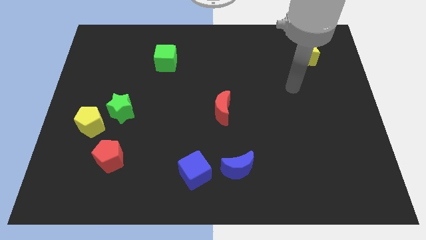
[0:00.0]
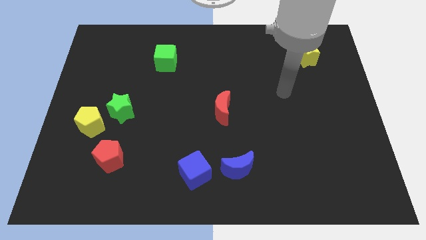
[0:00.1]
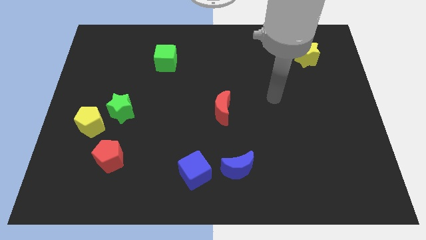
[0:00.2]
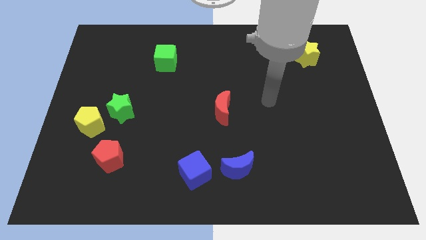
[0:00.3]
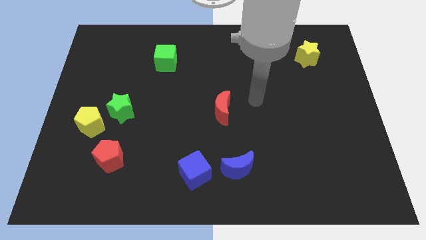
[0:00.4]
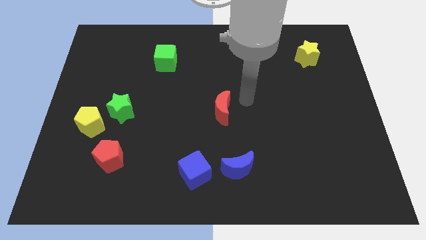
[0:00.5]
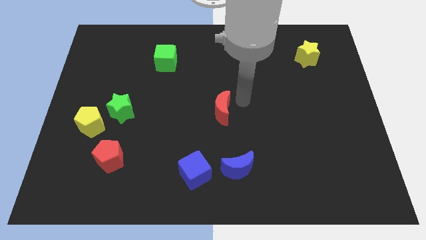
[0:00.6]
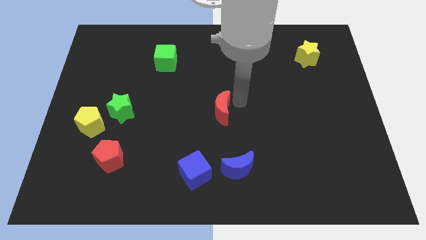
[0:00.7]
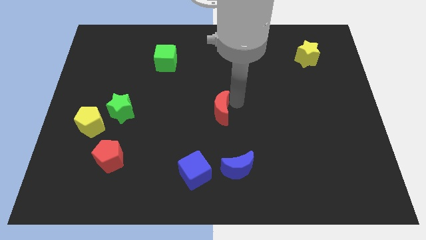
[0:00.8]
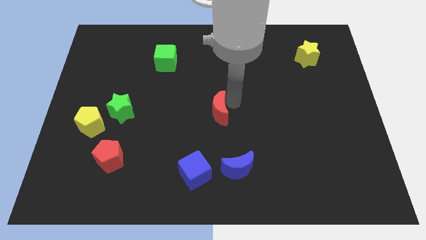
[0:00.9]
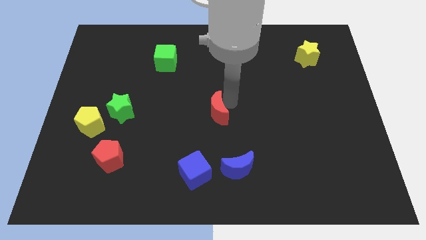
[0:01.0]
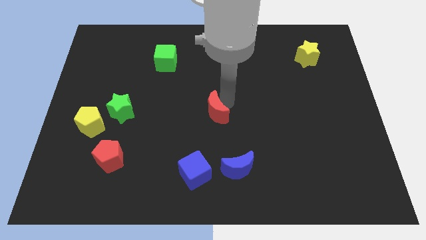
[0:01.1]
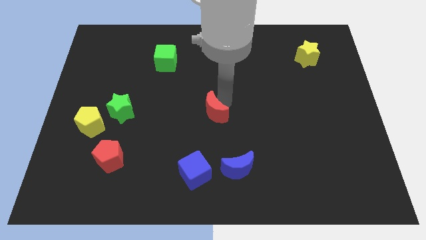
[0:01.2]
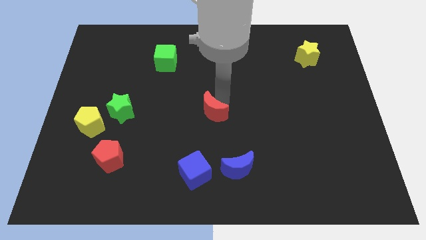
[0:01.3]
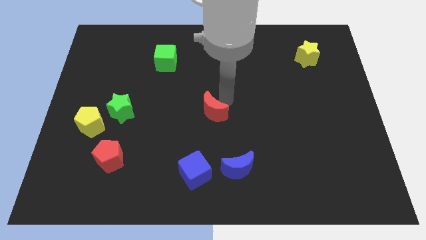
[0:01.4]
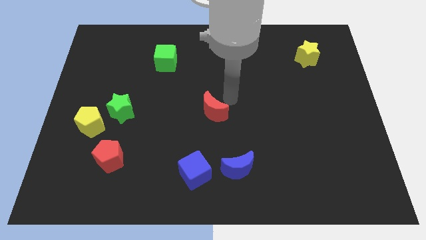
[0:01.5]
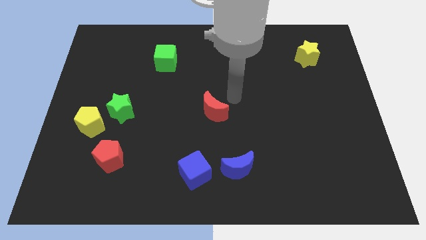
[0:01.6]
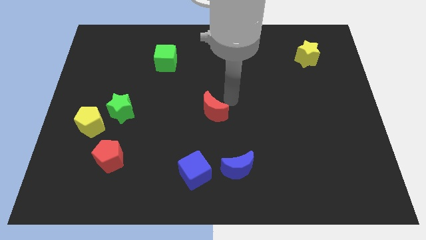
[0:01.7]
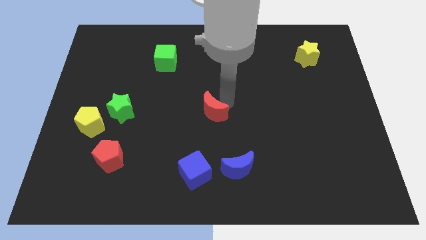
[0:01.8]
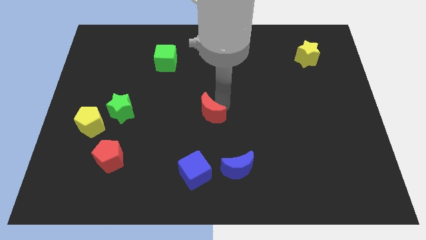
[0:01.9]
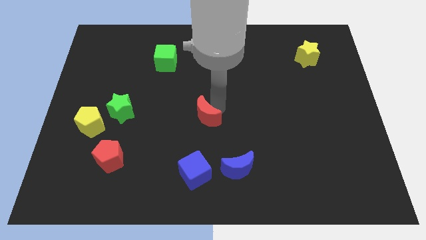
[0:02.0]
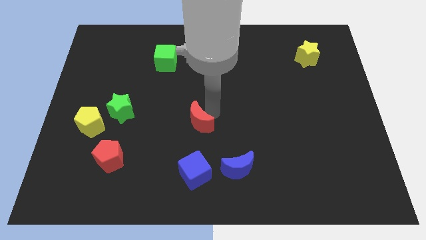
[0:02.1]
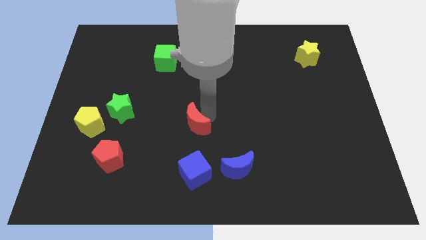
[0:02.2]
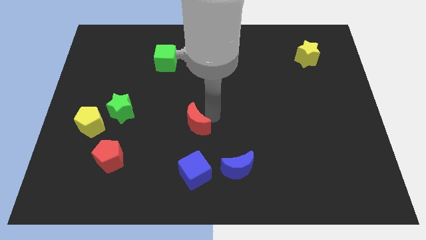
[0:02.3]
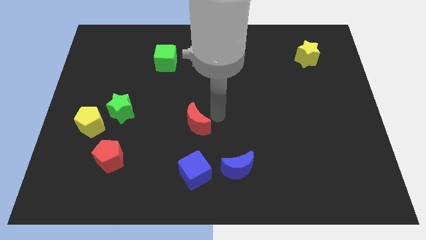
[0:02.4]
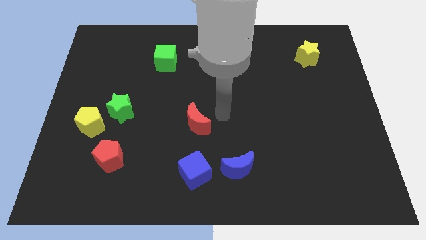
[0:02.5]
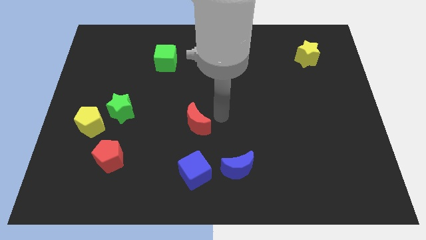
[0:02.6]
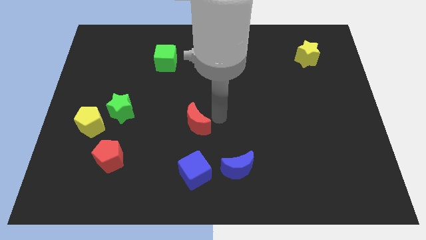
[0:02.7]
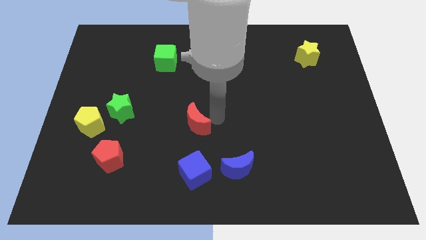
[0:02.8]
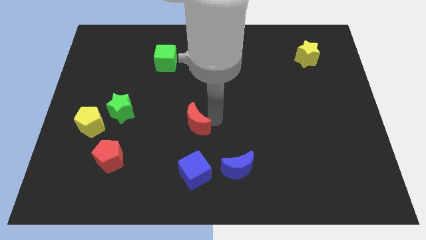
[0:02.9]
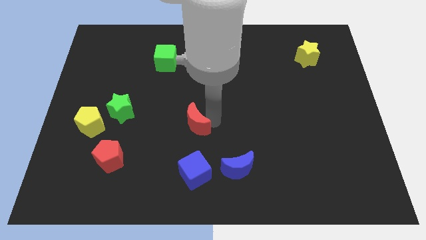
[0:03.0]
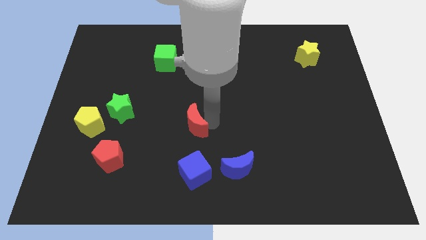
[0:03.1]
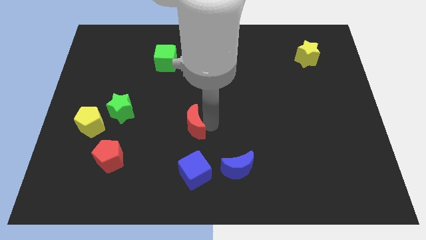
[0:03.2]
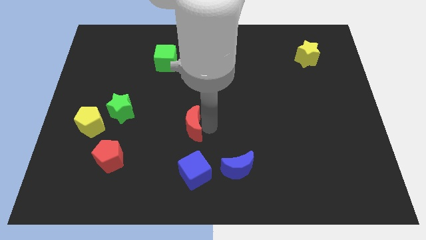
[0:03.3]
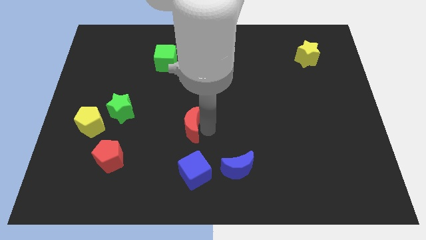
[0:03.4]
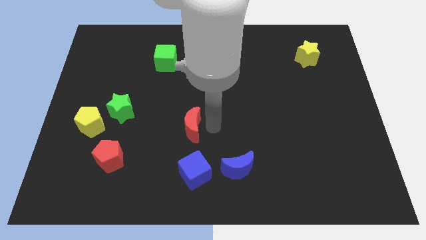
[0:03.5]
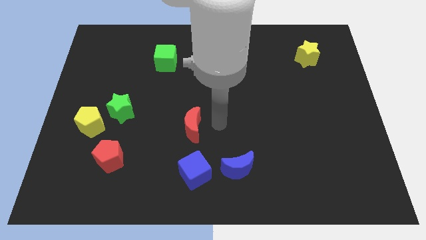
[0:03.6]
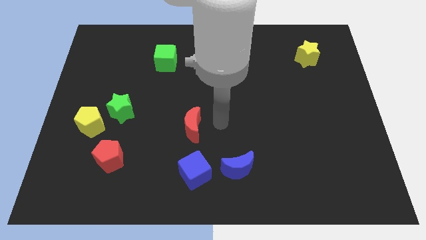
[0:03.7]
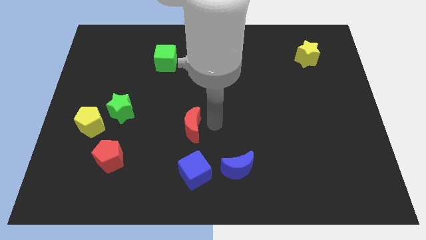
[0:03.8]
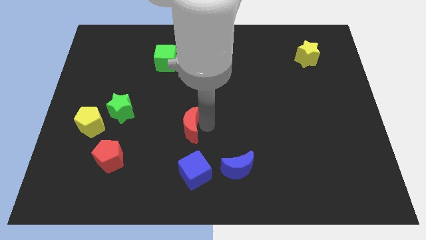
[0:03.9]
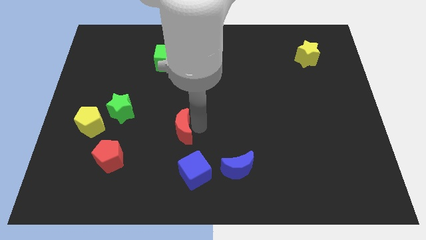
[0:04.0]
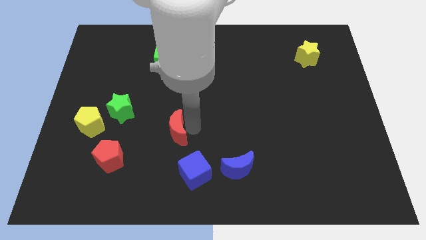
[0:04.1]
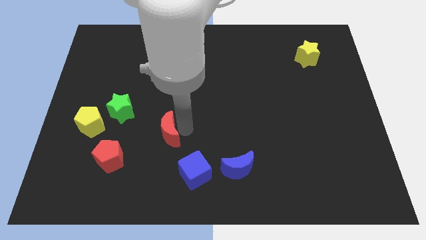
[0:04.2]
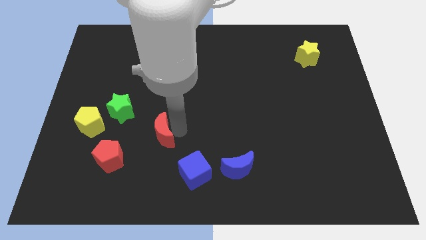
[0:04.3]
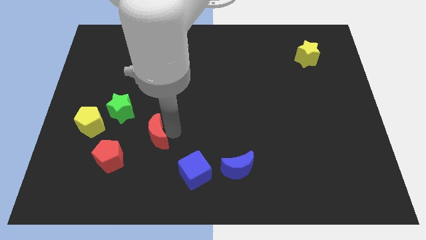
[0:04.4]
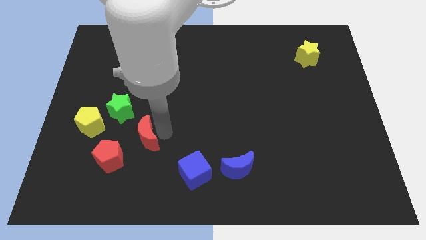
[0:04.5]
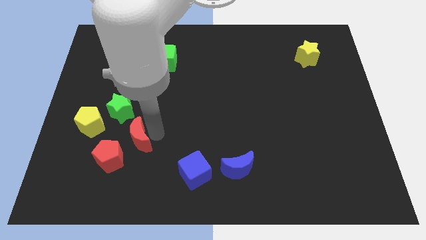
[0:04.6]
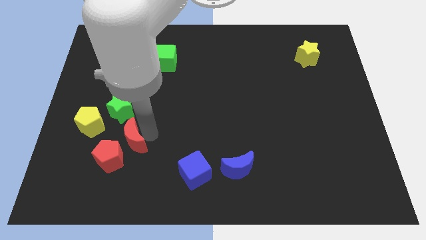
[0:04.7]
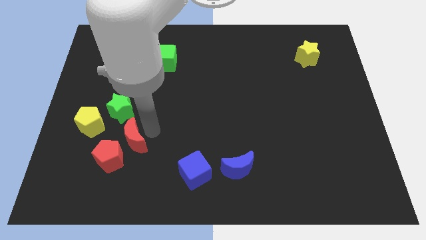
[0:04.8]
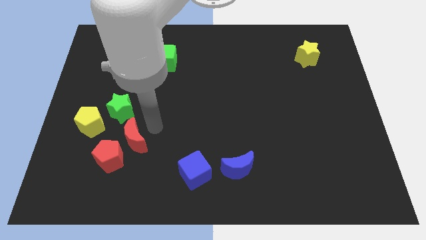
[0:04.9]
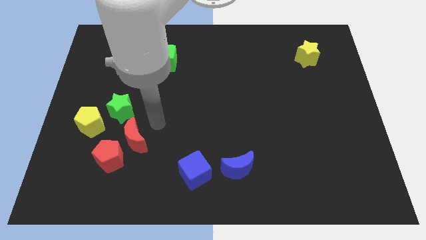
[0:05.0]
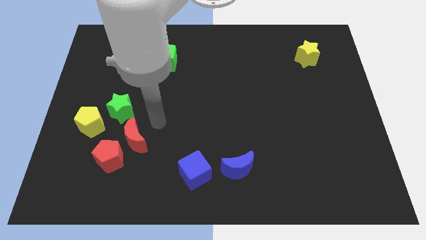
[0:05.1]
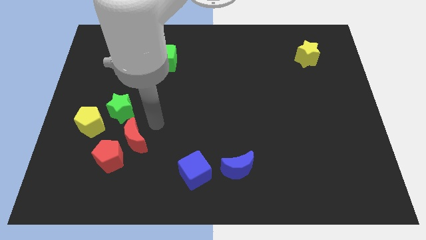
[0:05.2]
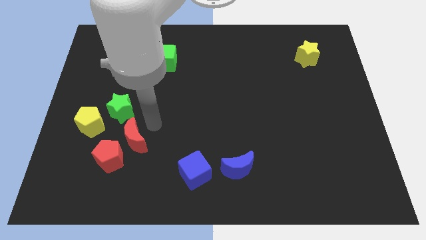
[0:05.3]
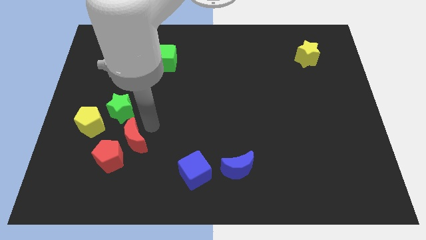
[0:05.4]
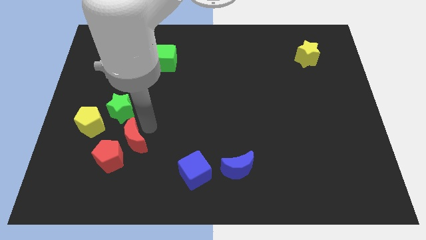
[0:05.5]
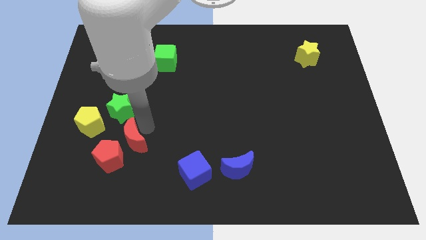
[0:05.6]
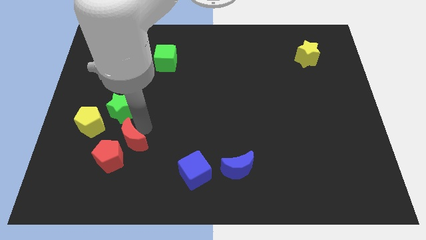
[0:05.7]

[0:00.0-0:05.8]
push the red moon close to the red pentagon

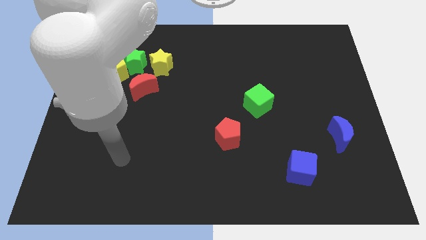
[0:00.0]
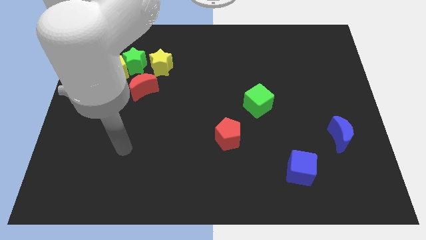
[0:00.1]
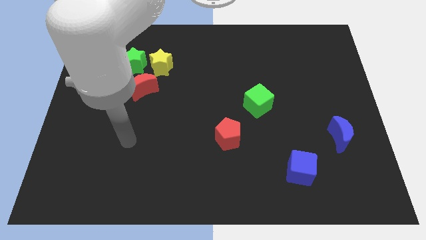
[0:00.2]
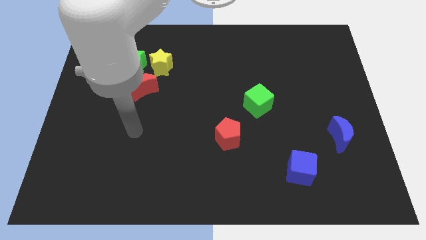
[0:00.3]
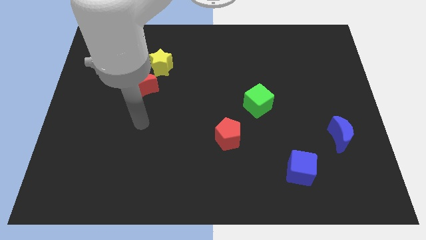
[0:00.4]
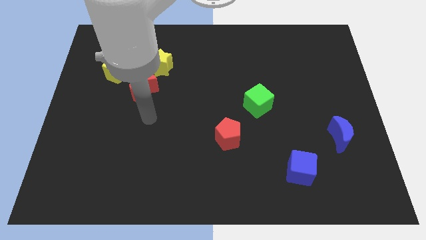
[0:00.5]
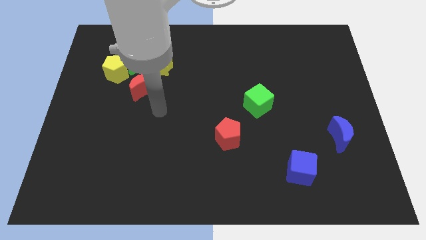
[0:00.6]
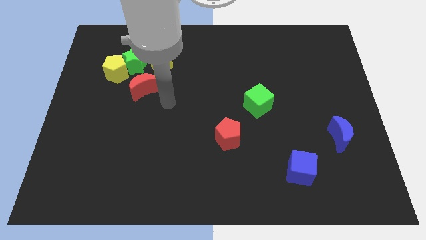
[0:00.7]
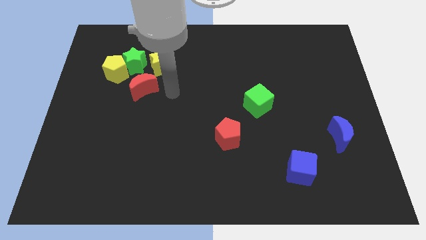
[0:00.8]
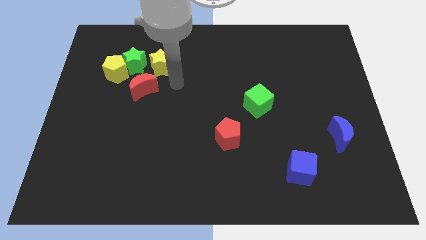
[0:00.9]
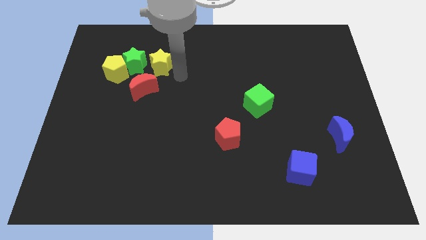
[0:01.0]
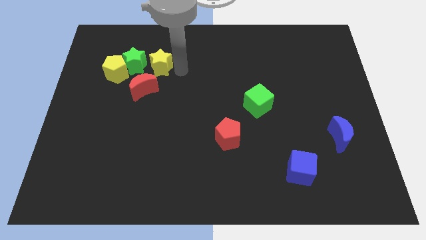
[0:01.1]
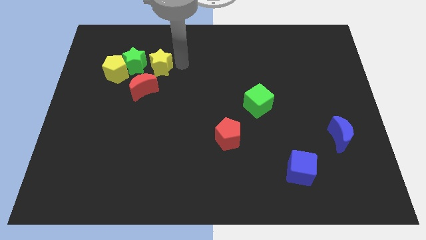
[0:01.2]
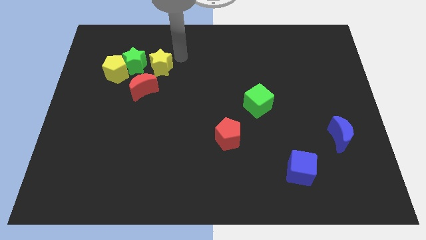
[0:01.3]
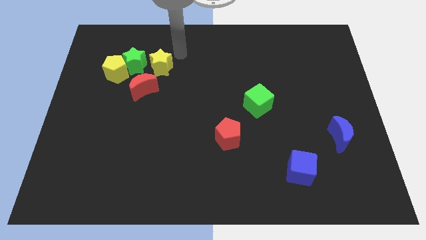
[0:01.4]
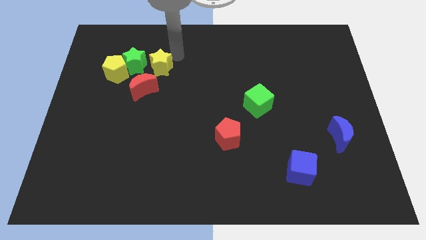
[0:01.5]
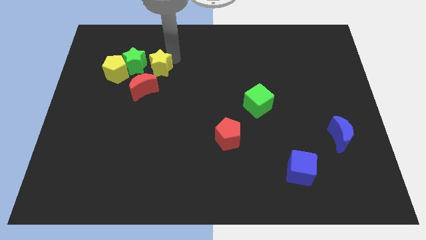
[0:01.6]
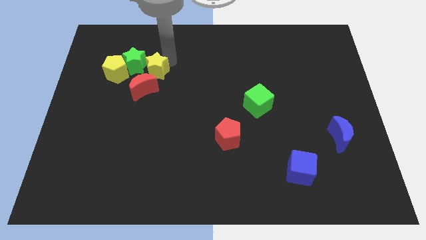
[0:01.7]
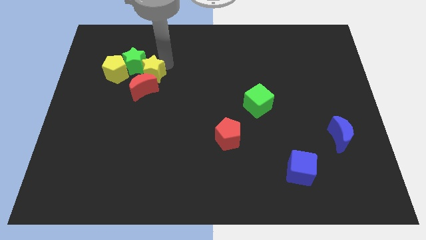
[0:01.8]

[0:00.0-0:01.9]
move the yellow star next to the red moon
